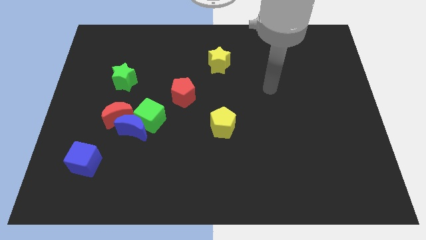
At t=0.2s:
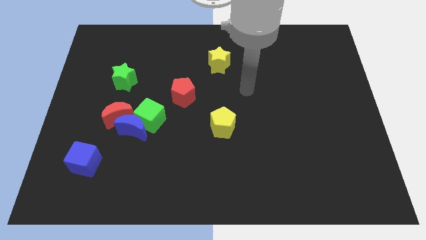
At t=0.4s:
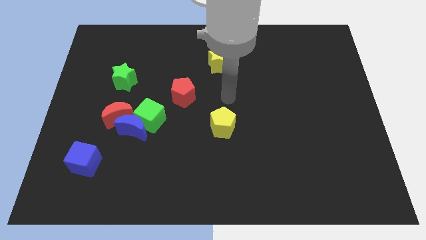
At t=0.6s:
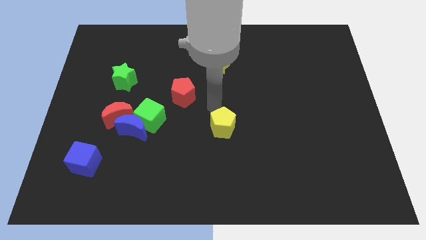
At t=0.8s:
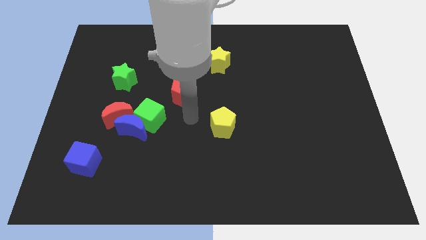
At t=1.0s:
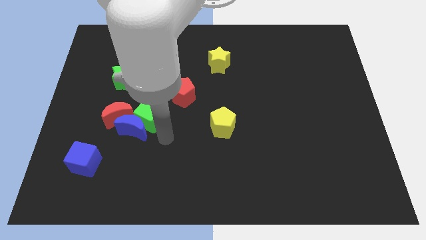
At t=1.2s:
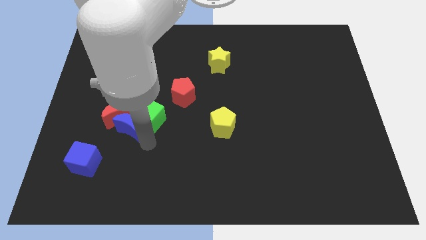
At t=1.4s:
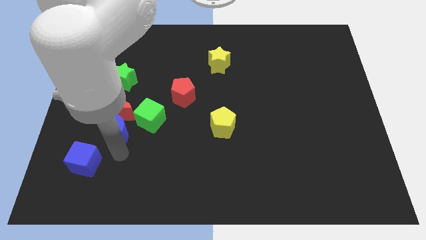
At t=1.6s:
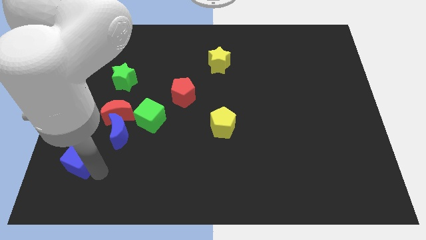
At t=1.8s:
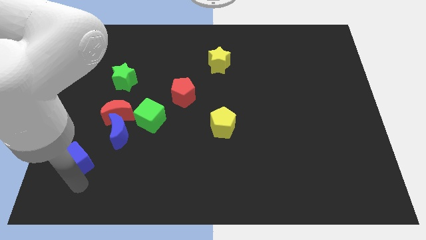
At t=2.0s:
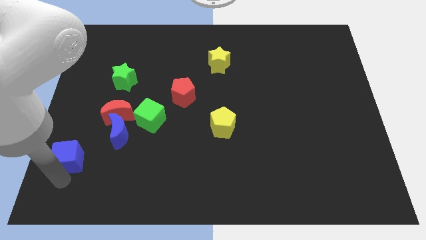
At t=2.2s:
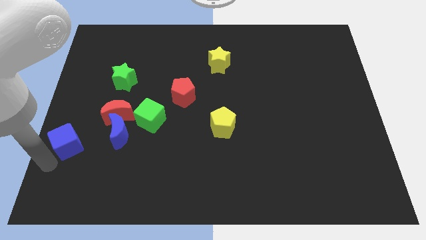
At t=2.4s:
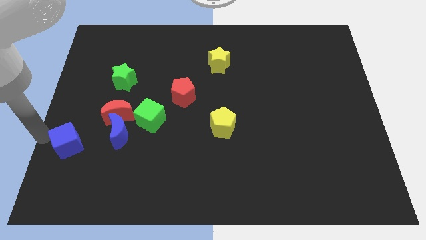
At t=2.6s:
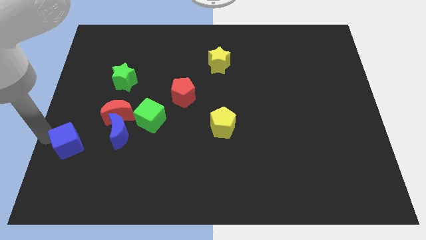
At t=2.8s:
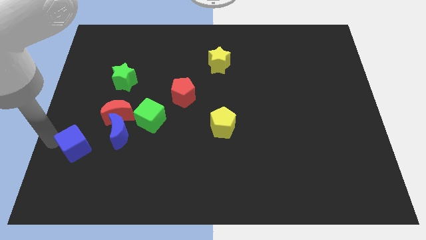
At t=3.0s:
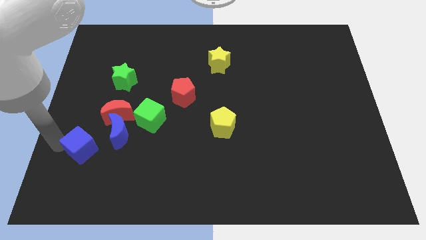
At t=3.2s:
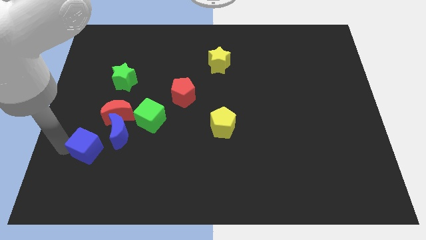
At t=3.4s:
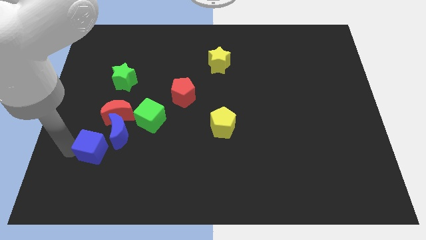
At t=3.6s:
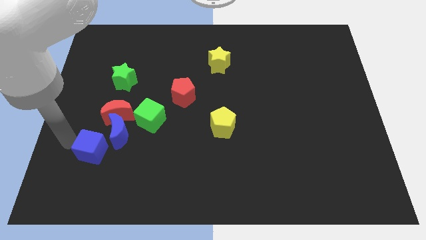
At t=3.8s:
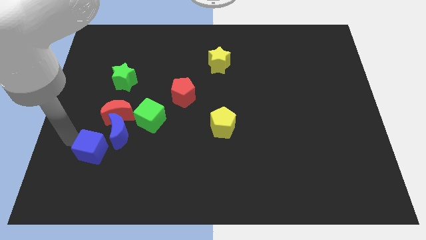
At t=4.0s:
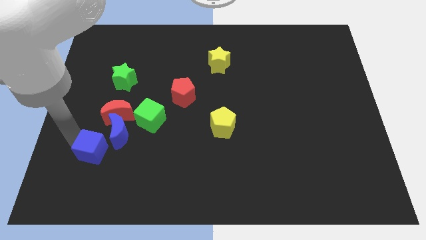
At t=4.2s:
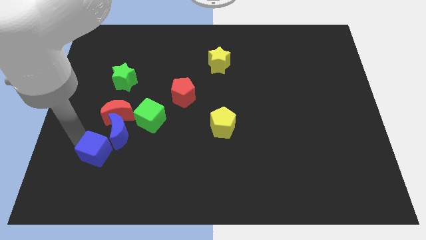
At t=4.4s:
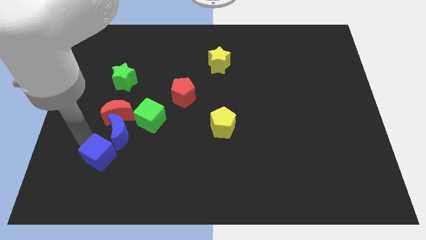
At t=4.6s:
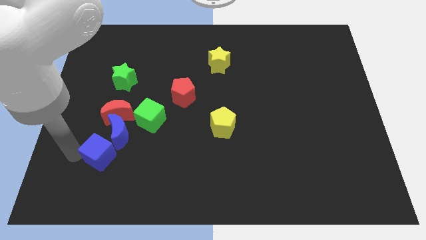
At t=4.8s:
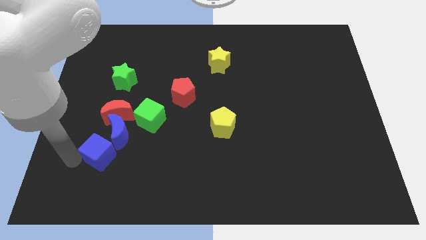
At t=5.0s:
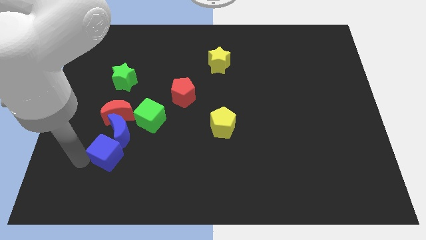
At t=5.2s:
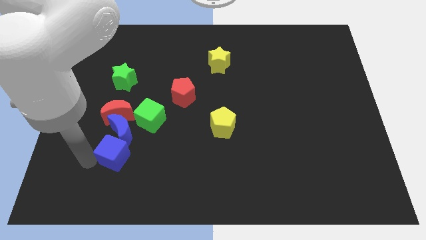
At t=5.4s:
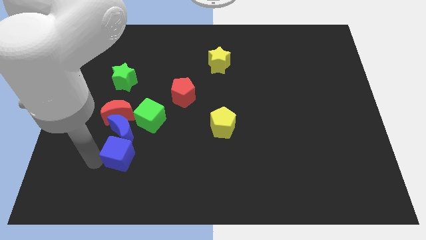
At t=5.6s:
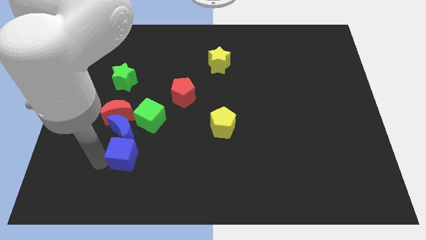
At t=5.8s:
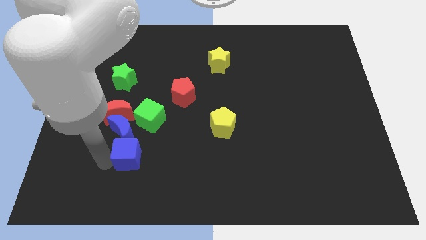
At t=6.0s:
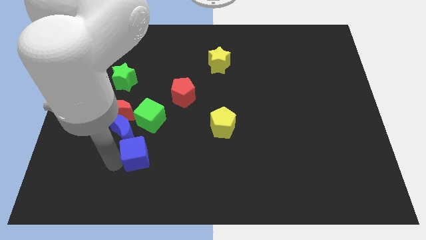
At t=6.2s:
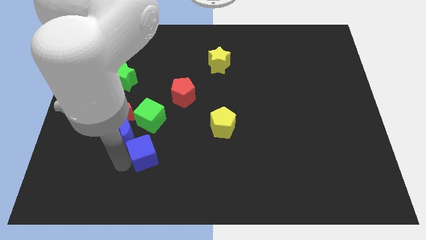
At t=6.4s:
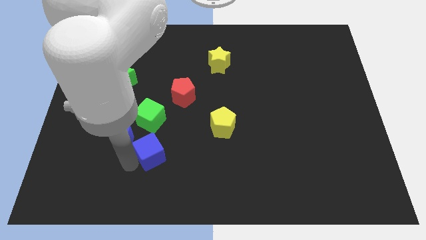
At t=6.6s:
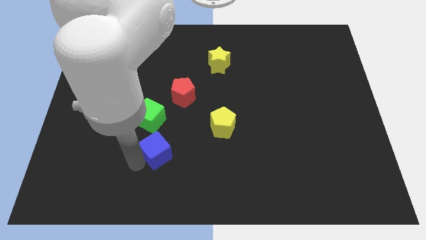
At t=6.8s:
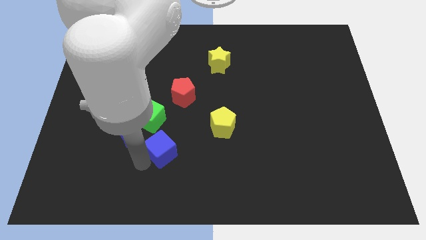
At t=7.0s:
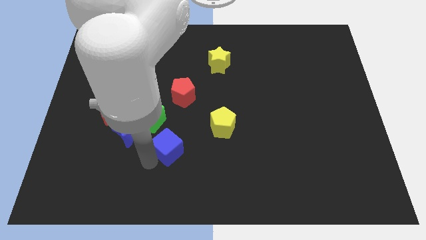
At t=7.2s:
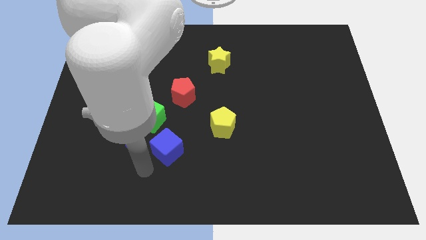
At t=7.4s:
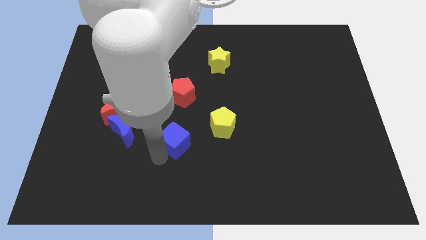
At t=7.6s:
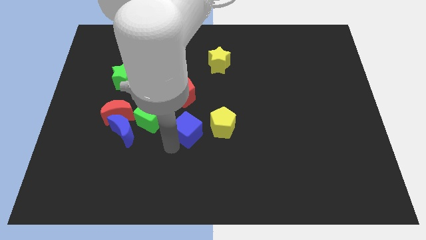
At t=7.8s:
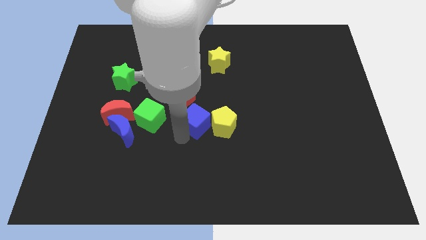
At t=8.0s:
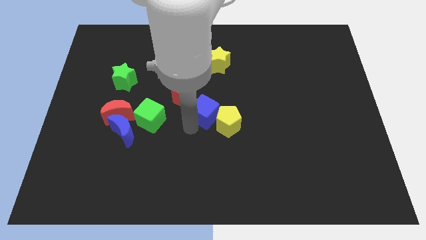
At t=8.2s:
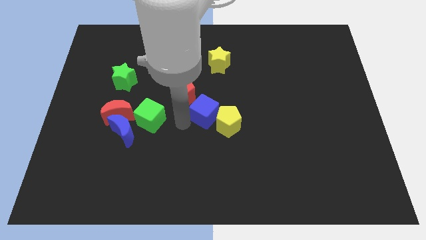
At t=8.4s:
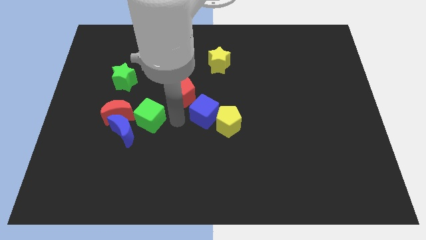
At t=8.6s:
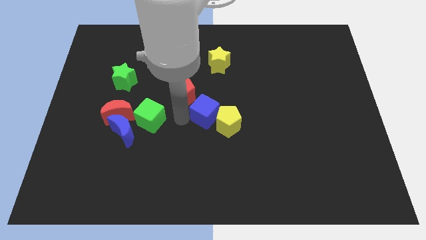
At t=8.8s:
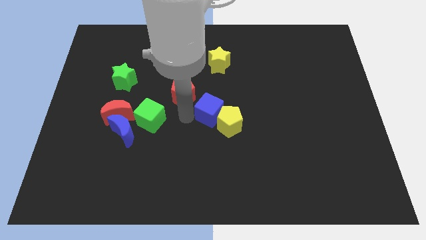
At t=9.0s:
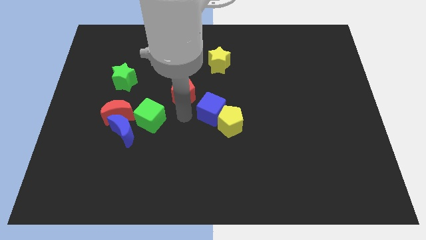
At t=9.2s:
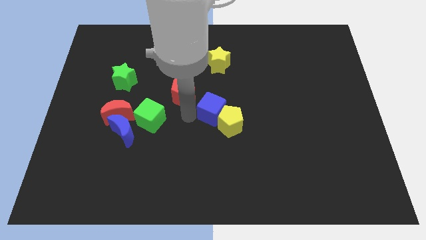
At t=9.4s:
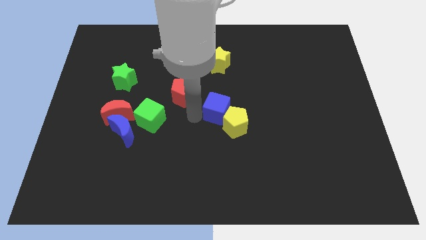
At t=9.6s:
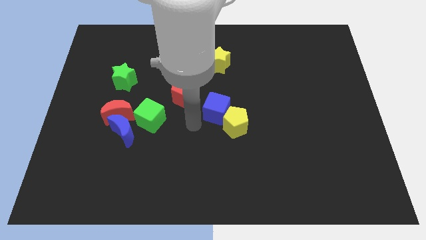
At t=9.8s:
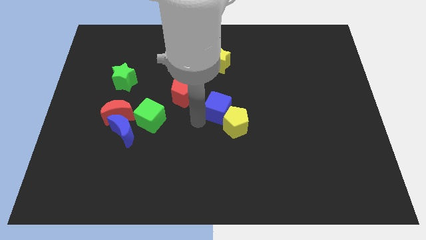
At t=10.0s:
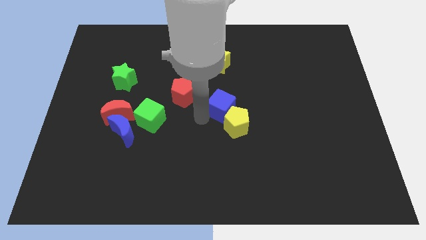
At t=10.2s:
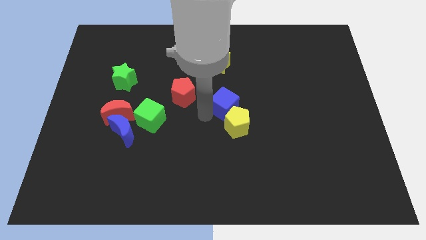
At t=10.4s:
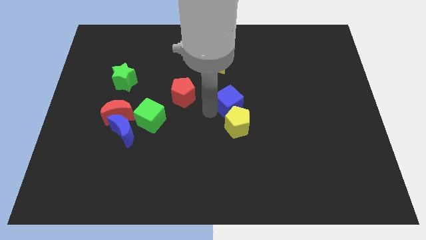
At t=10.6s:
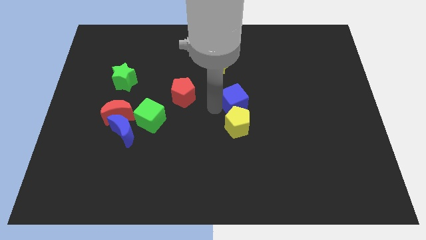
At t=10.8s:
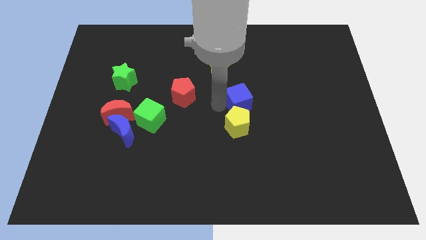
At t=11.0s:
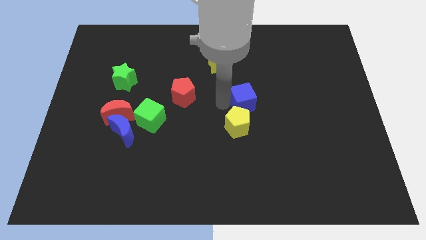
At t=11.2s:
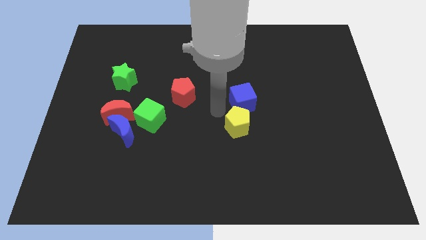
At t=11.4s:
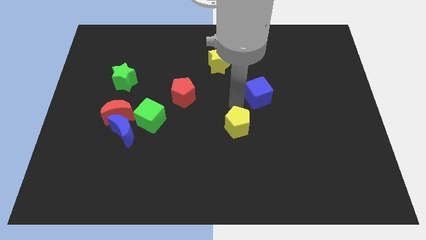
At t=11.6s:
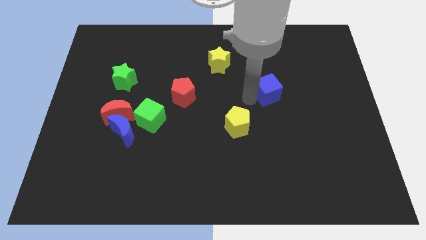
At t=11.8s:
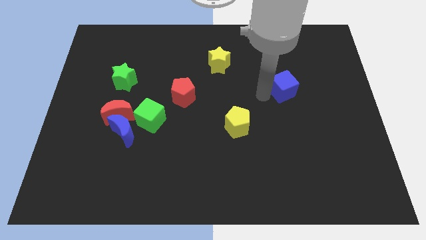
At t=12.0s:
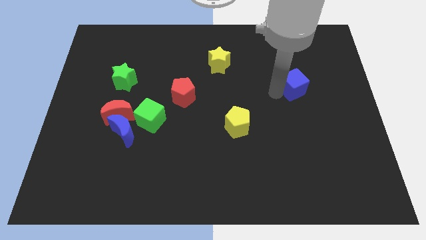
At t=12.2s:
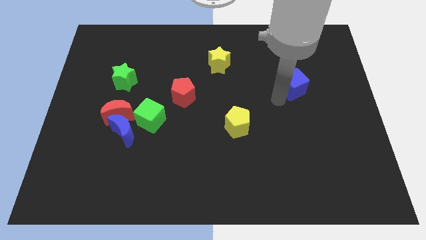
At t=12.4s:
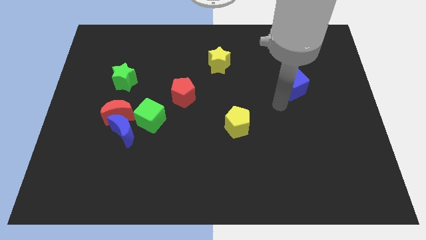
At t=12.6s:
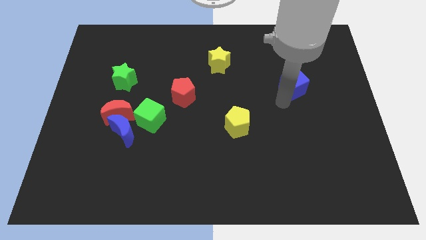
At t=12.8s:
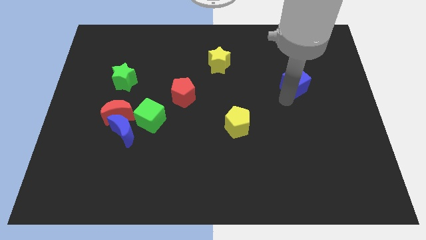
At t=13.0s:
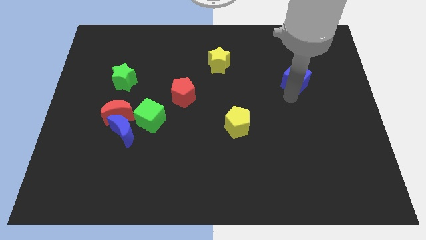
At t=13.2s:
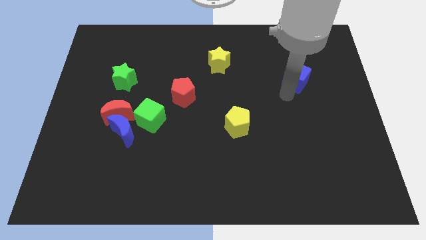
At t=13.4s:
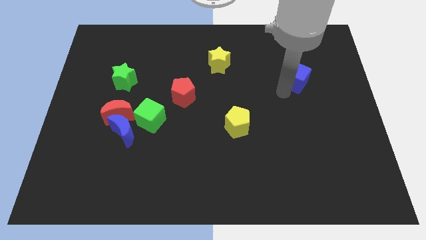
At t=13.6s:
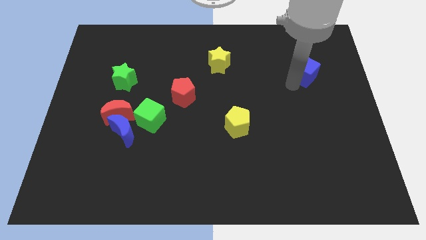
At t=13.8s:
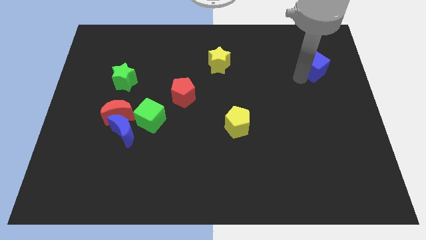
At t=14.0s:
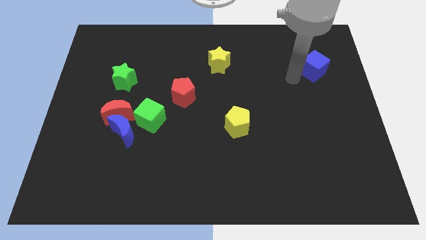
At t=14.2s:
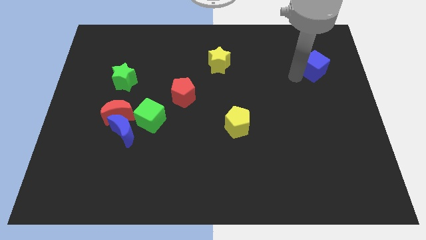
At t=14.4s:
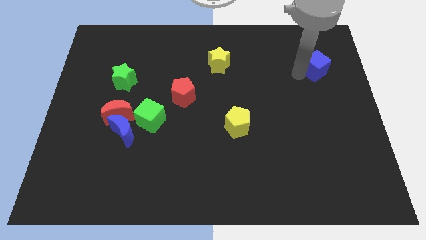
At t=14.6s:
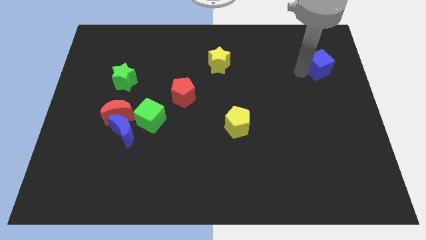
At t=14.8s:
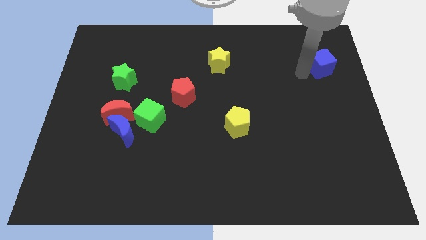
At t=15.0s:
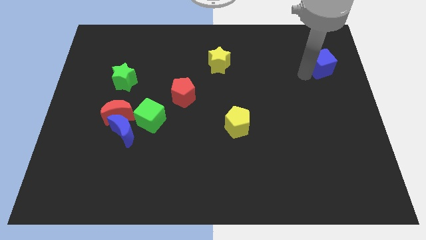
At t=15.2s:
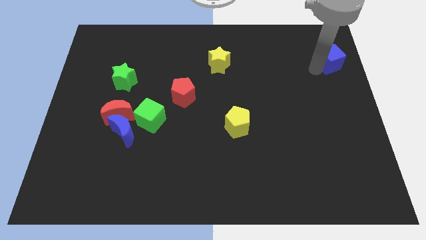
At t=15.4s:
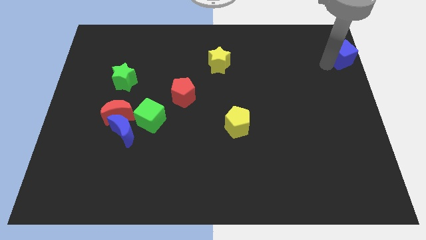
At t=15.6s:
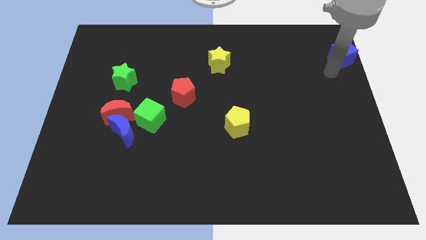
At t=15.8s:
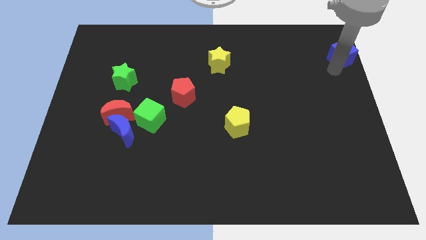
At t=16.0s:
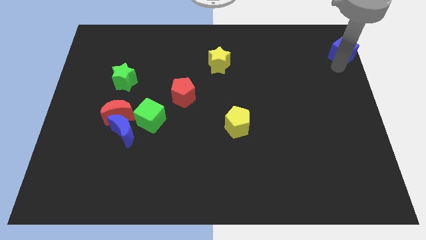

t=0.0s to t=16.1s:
put the blue cube to the top right

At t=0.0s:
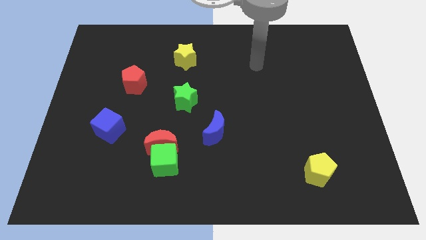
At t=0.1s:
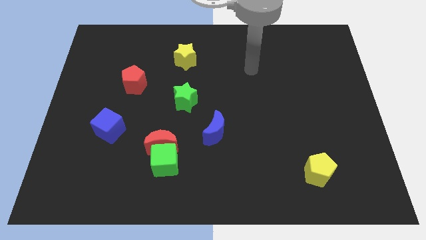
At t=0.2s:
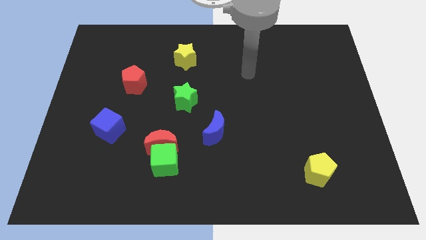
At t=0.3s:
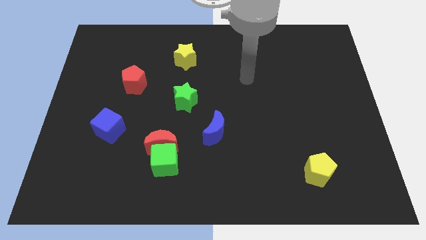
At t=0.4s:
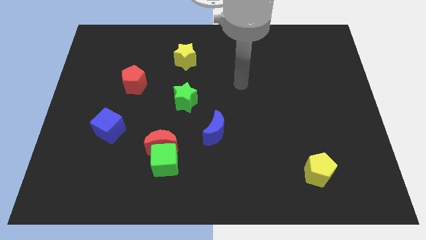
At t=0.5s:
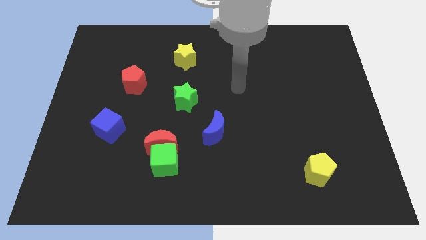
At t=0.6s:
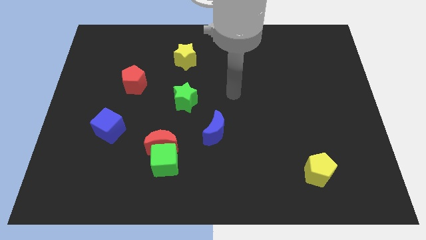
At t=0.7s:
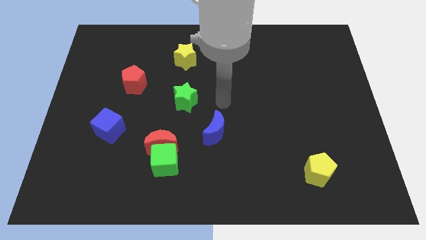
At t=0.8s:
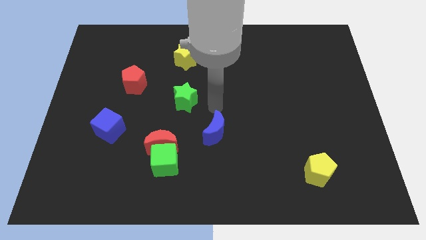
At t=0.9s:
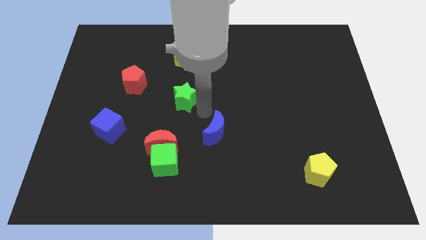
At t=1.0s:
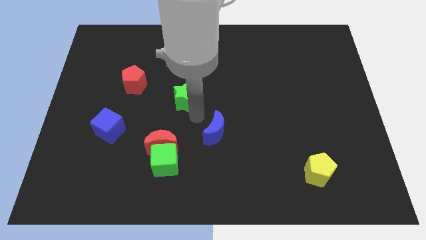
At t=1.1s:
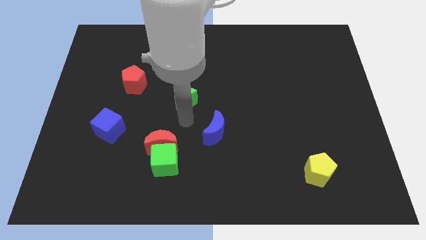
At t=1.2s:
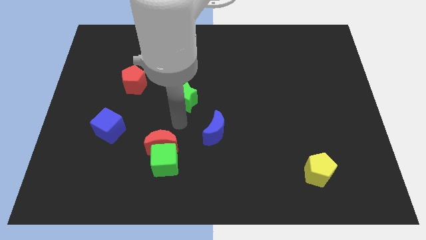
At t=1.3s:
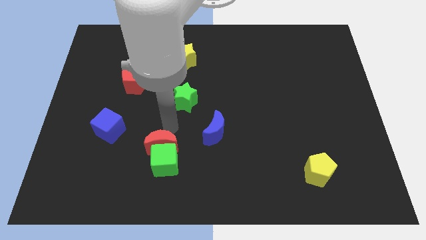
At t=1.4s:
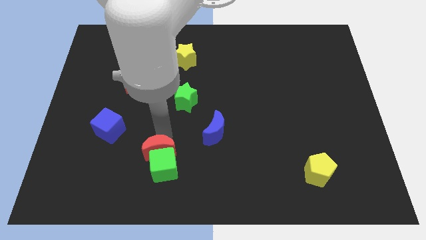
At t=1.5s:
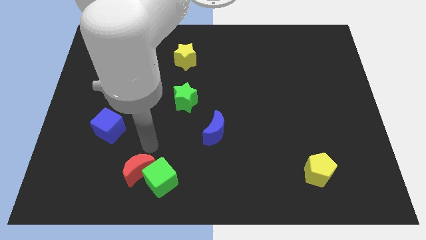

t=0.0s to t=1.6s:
move the green cube to the bottom
